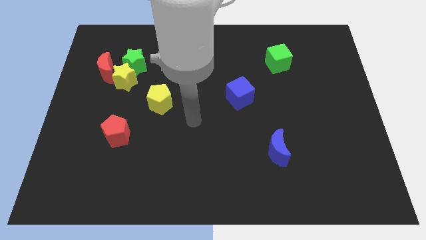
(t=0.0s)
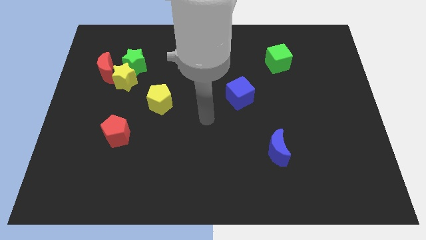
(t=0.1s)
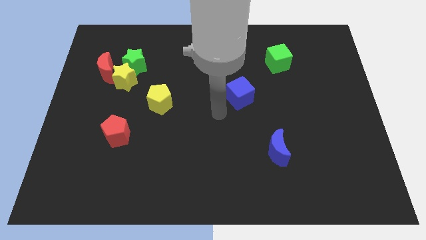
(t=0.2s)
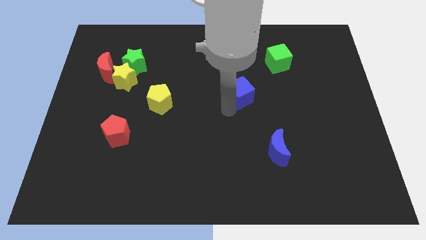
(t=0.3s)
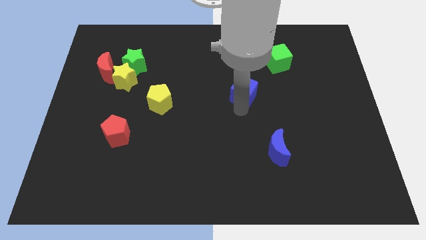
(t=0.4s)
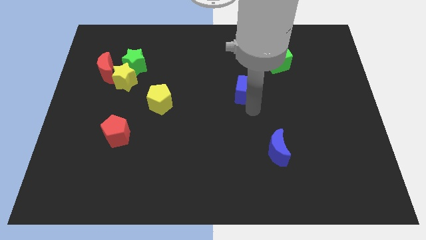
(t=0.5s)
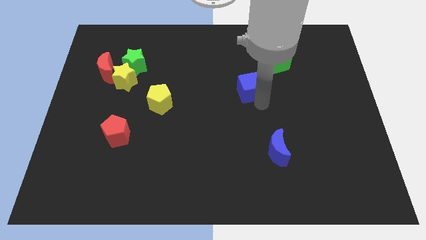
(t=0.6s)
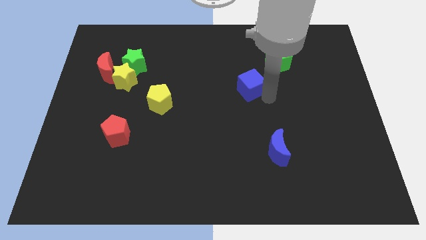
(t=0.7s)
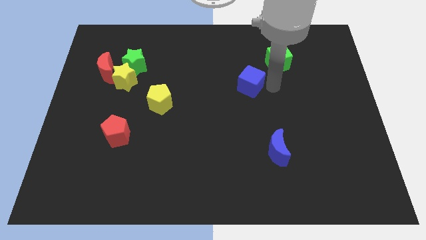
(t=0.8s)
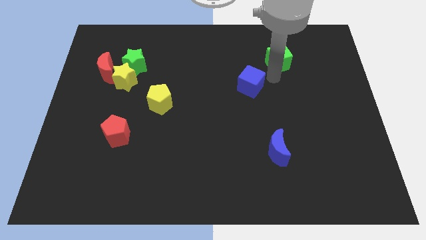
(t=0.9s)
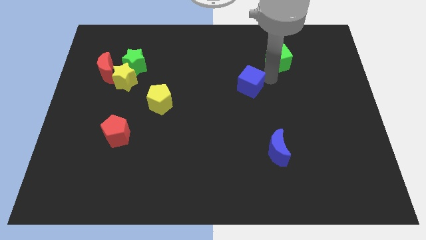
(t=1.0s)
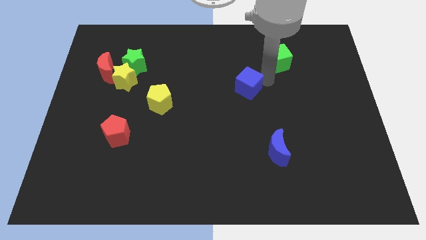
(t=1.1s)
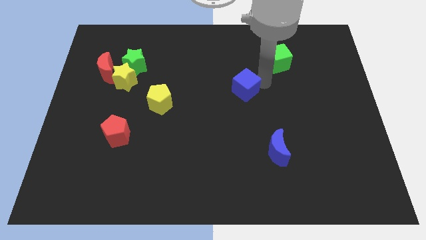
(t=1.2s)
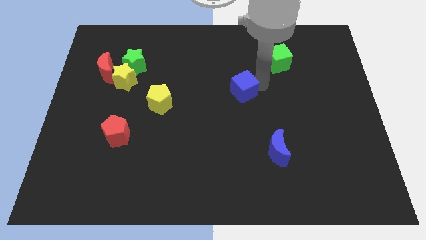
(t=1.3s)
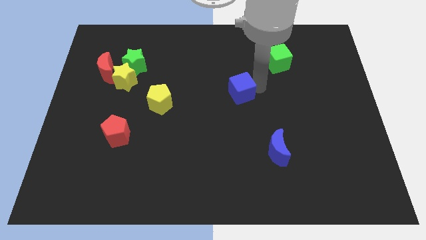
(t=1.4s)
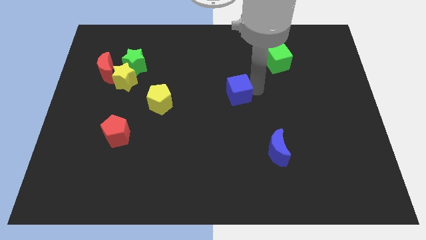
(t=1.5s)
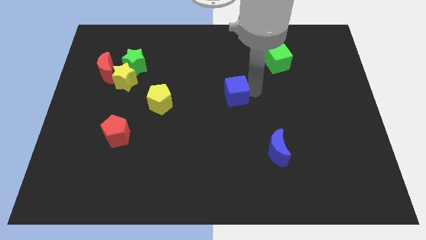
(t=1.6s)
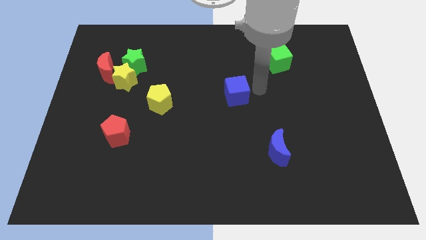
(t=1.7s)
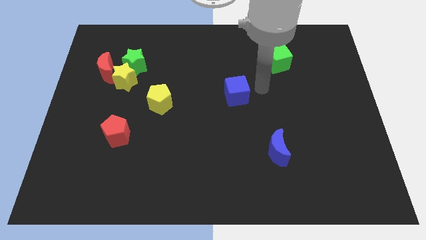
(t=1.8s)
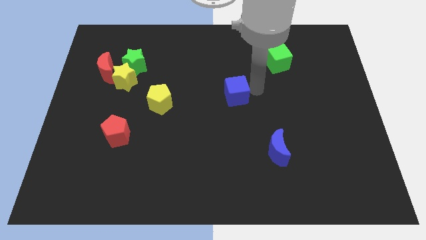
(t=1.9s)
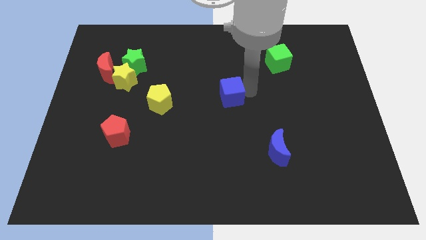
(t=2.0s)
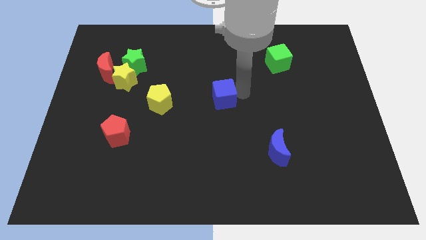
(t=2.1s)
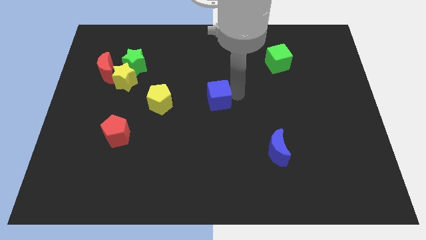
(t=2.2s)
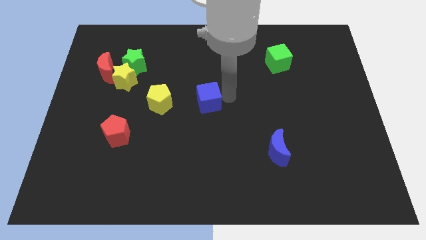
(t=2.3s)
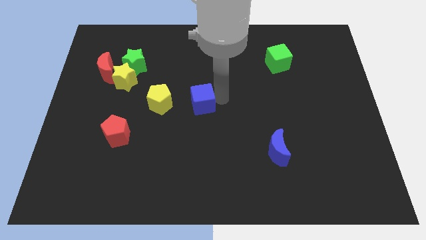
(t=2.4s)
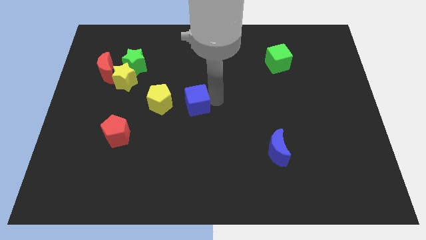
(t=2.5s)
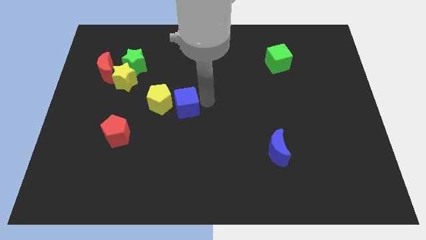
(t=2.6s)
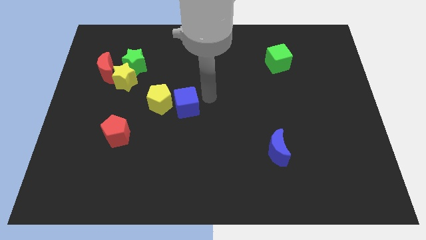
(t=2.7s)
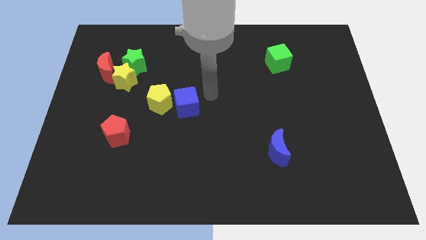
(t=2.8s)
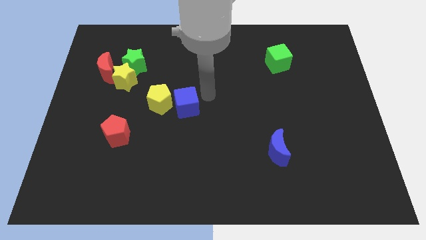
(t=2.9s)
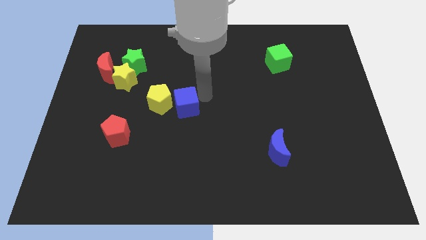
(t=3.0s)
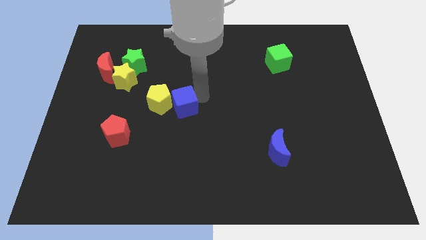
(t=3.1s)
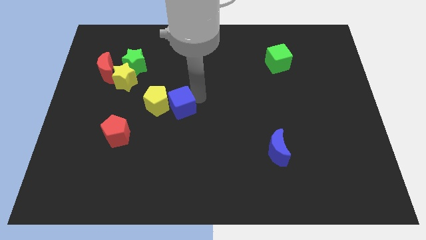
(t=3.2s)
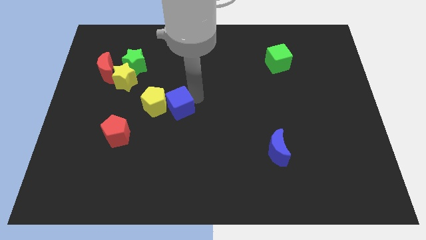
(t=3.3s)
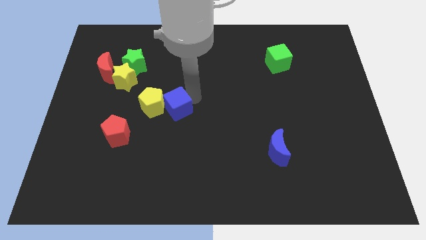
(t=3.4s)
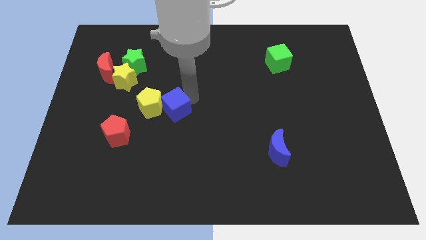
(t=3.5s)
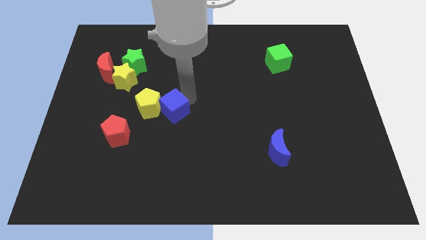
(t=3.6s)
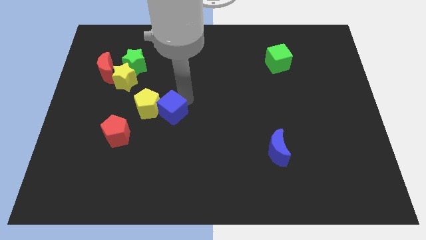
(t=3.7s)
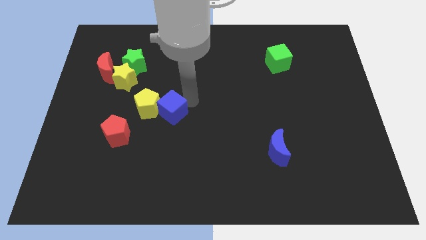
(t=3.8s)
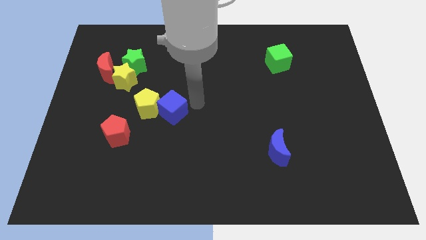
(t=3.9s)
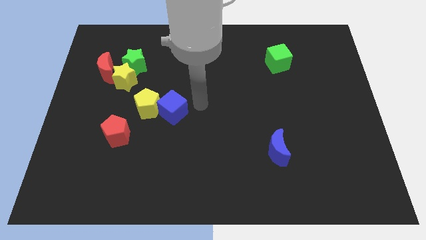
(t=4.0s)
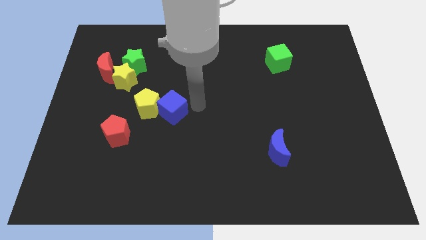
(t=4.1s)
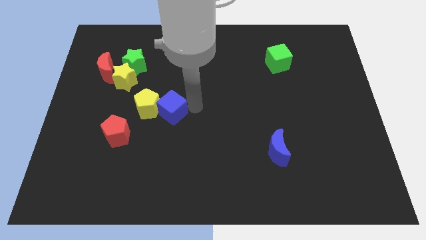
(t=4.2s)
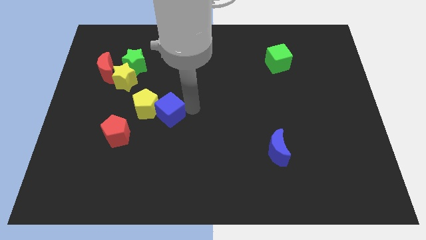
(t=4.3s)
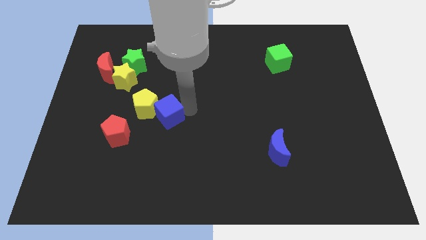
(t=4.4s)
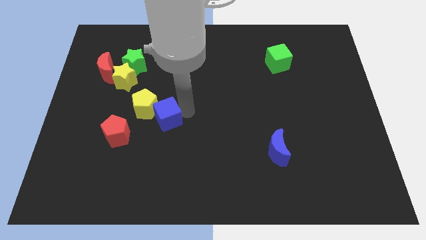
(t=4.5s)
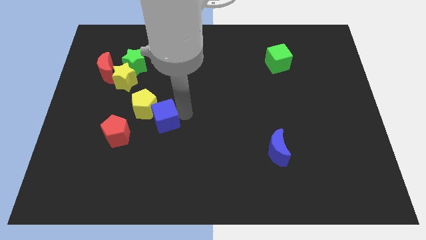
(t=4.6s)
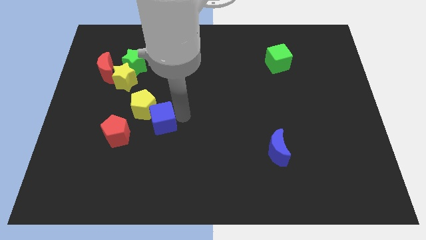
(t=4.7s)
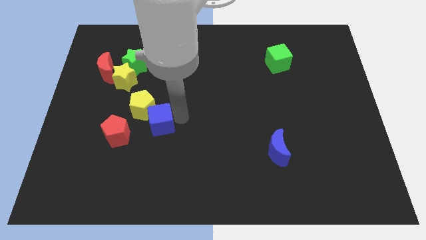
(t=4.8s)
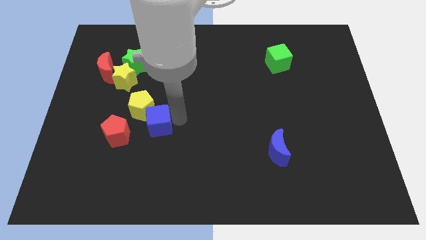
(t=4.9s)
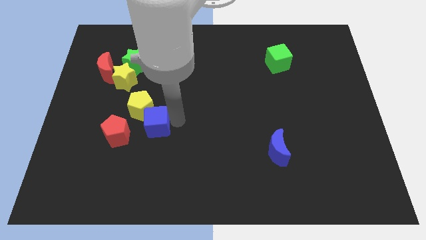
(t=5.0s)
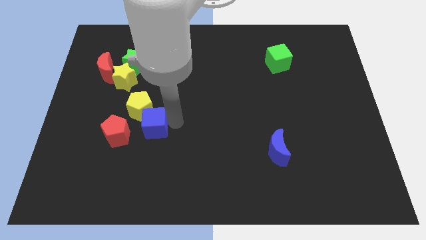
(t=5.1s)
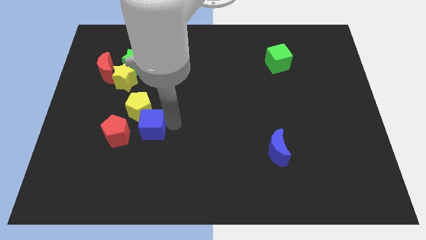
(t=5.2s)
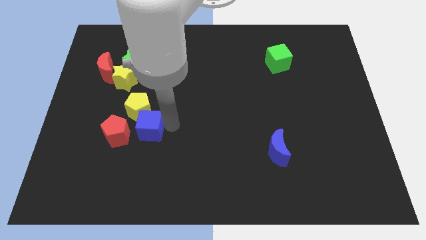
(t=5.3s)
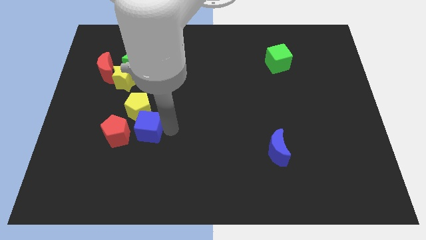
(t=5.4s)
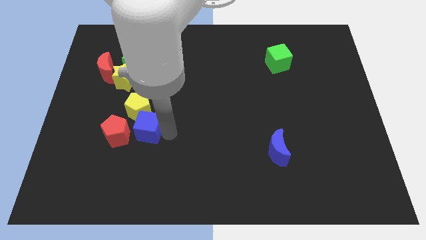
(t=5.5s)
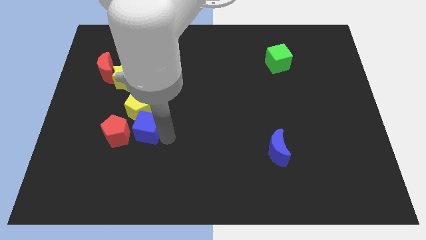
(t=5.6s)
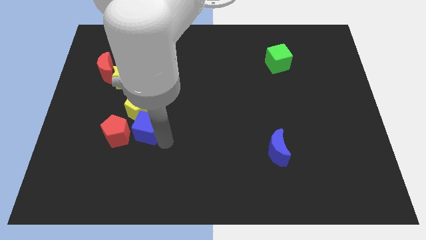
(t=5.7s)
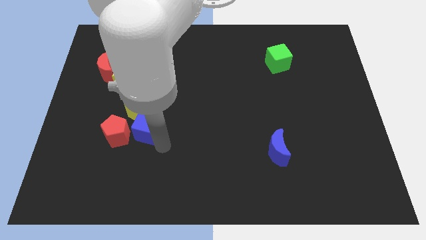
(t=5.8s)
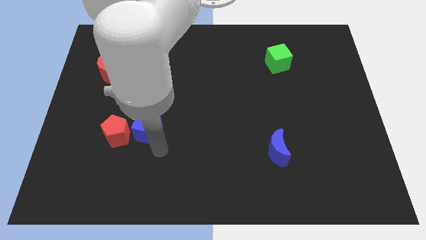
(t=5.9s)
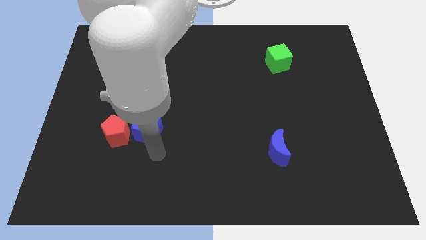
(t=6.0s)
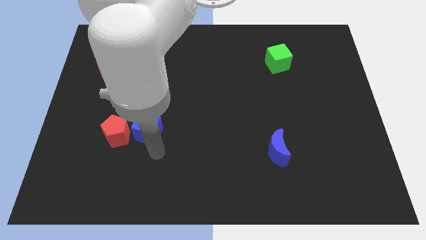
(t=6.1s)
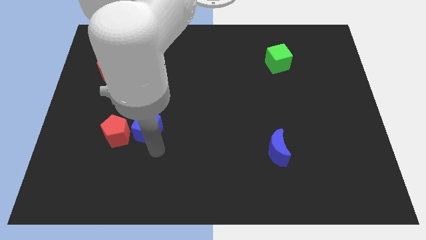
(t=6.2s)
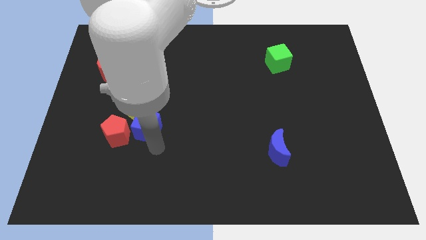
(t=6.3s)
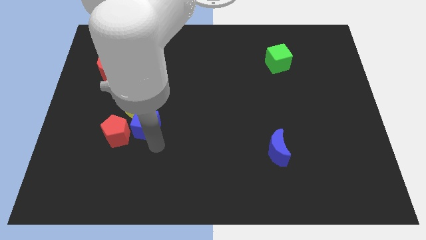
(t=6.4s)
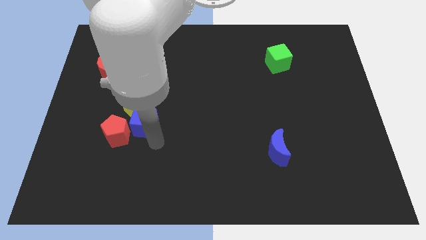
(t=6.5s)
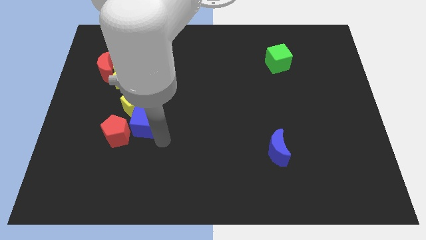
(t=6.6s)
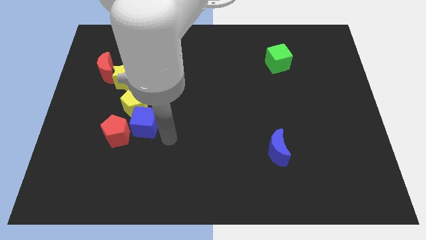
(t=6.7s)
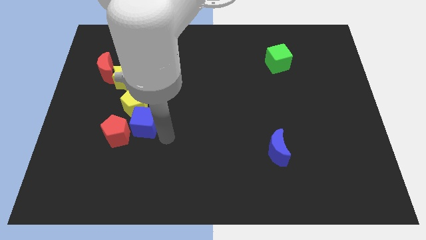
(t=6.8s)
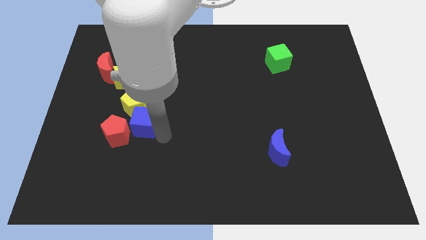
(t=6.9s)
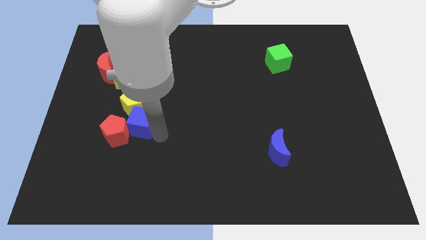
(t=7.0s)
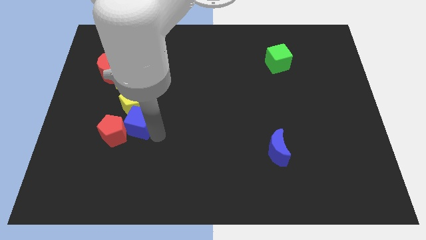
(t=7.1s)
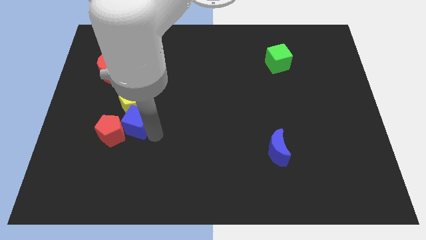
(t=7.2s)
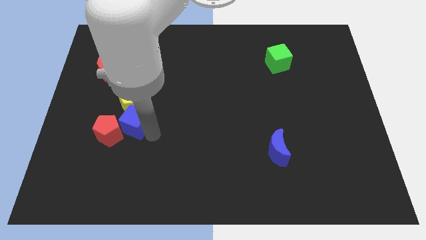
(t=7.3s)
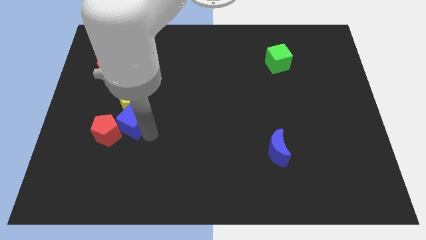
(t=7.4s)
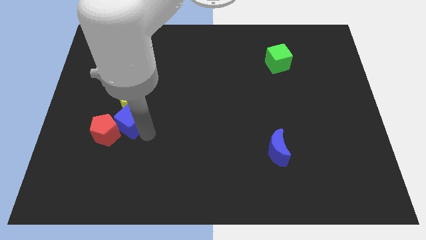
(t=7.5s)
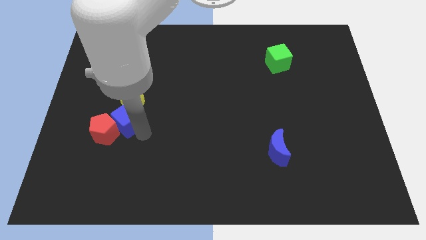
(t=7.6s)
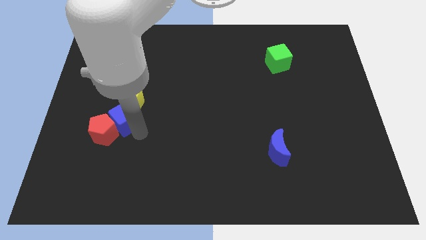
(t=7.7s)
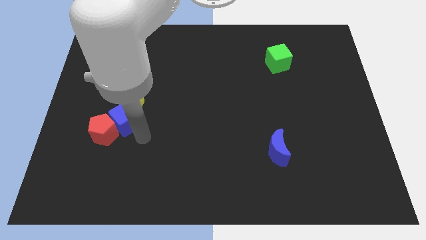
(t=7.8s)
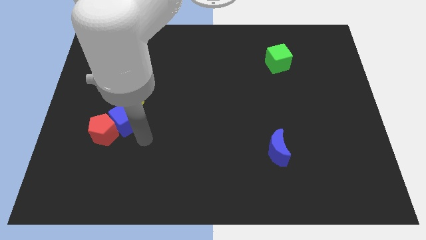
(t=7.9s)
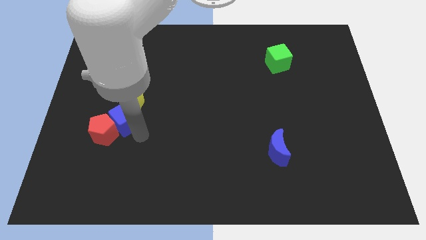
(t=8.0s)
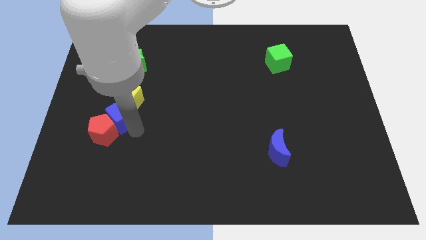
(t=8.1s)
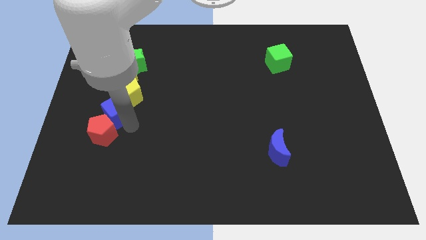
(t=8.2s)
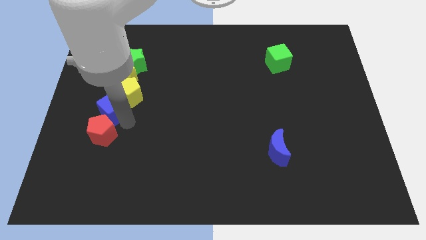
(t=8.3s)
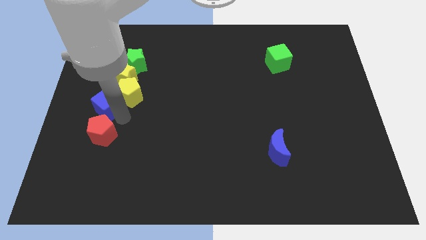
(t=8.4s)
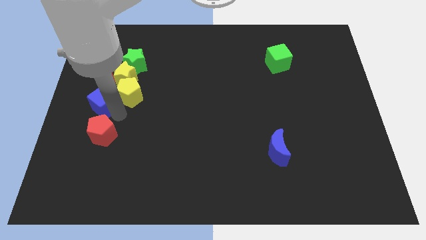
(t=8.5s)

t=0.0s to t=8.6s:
push the blue cube to the center left
